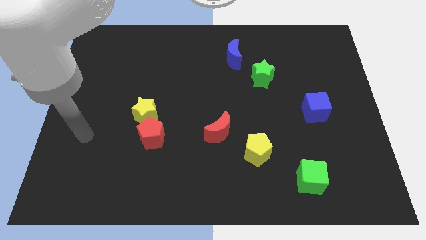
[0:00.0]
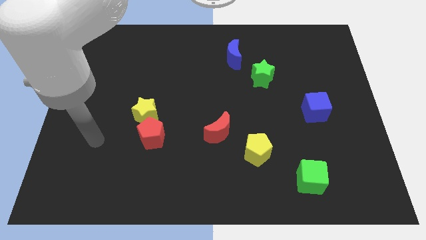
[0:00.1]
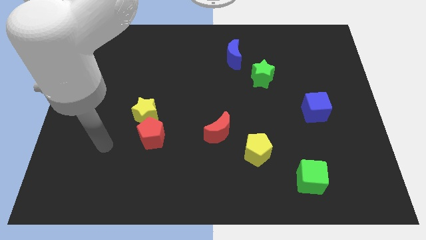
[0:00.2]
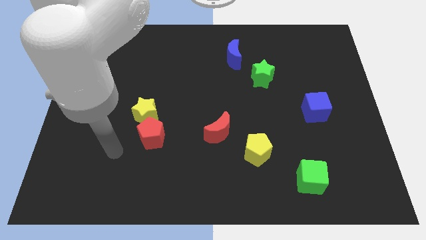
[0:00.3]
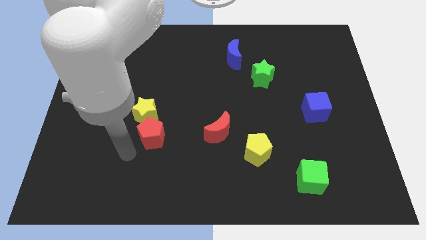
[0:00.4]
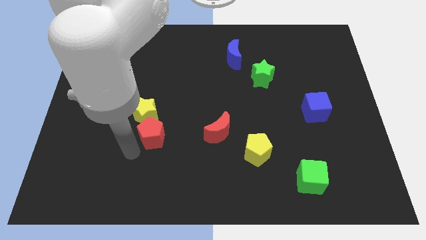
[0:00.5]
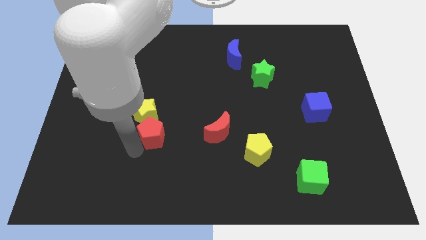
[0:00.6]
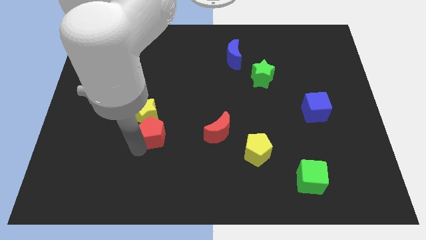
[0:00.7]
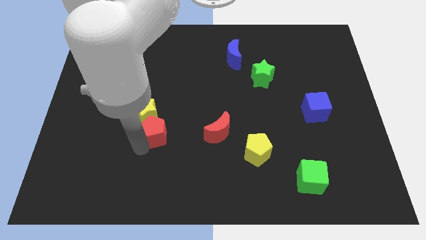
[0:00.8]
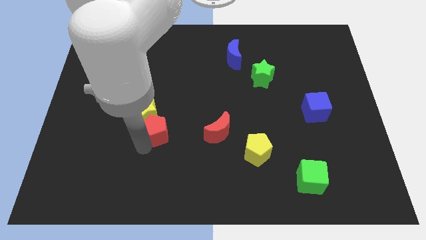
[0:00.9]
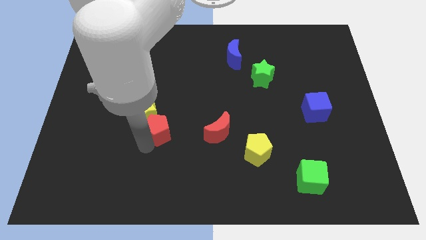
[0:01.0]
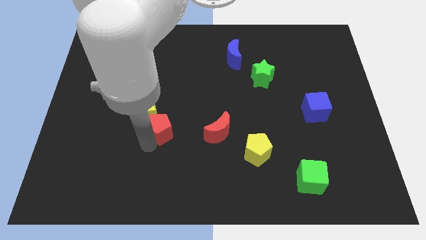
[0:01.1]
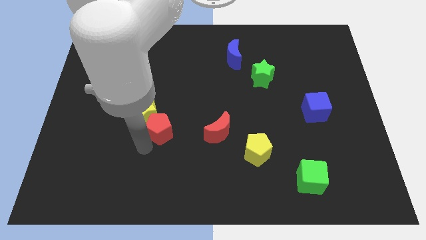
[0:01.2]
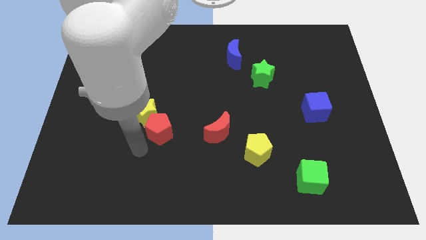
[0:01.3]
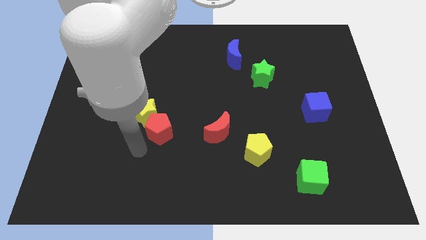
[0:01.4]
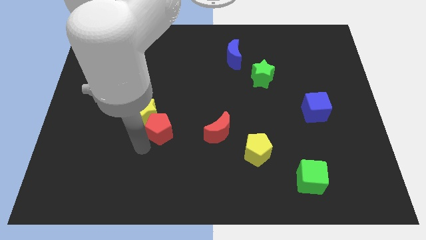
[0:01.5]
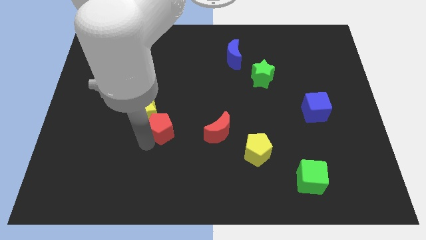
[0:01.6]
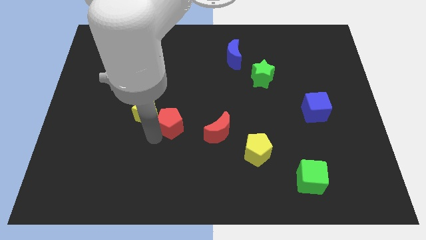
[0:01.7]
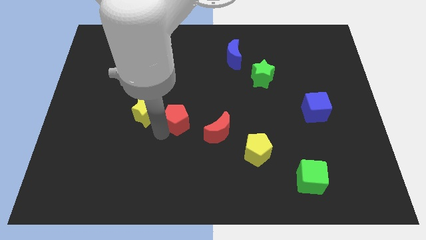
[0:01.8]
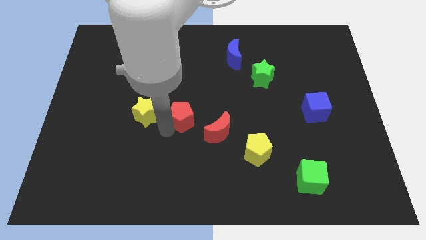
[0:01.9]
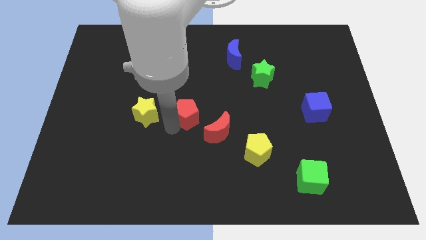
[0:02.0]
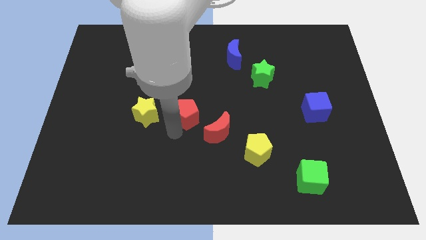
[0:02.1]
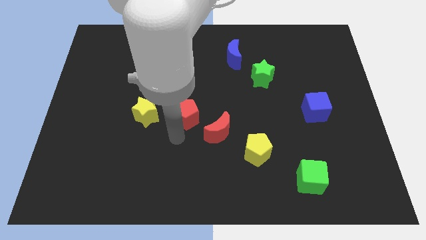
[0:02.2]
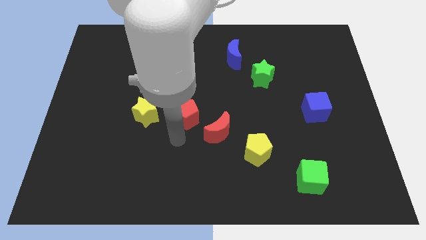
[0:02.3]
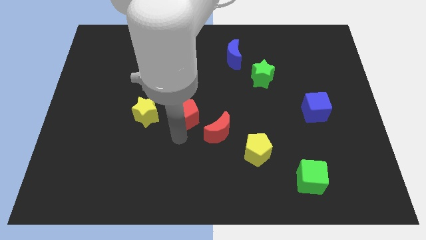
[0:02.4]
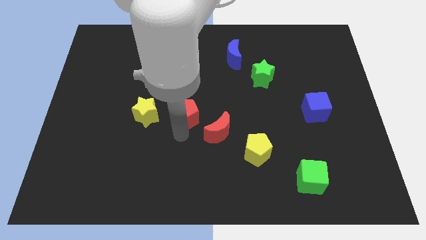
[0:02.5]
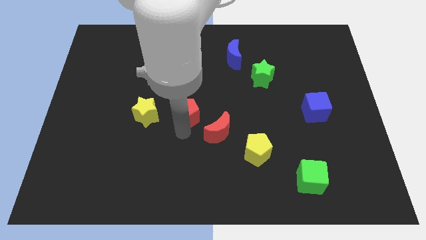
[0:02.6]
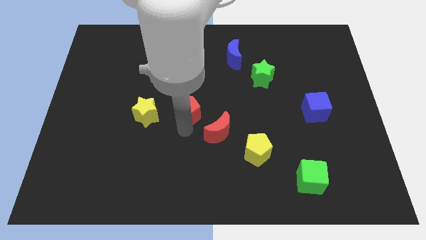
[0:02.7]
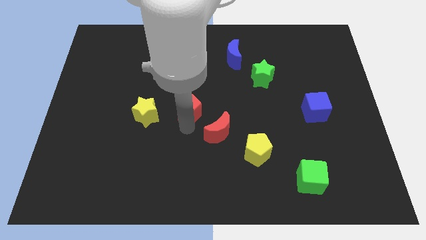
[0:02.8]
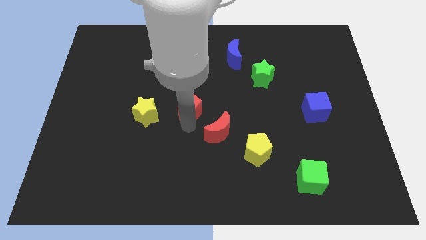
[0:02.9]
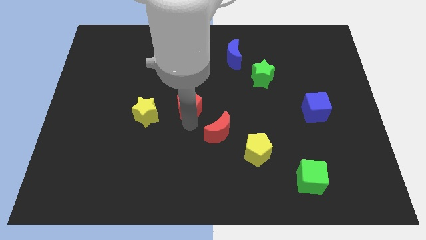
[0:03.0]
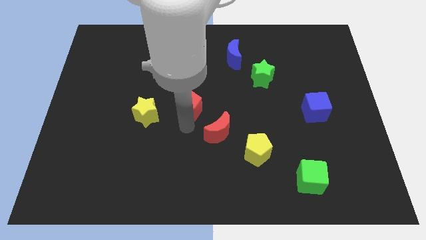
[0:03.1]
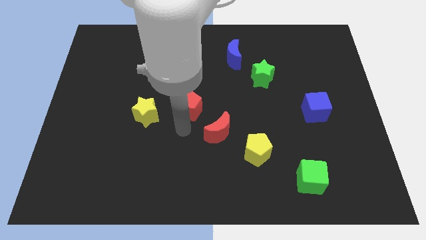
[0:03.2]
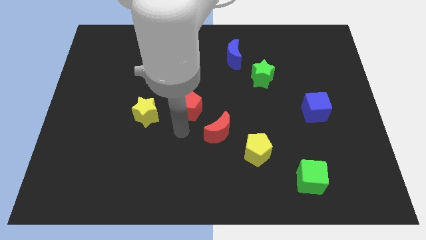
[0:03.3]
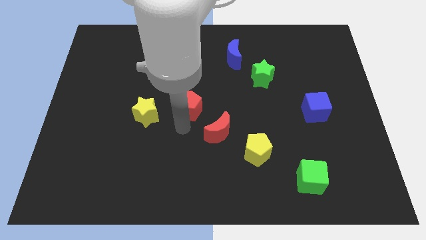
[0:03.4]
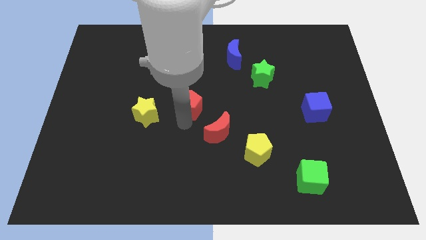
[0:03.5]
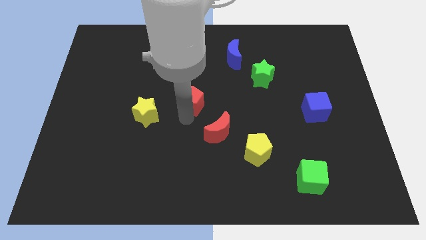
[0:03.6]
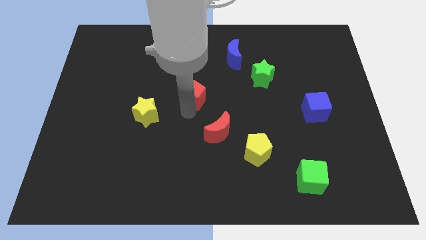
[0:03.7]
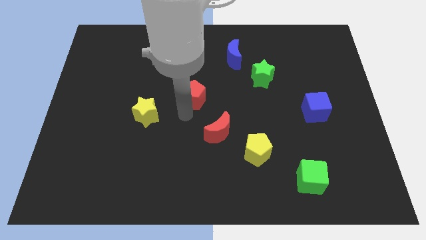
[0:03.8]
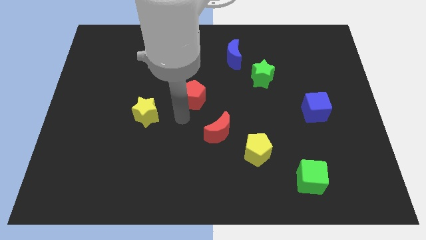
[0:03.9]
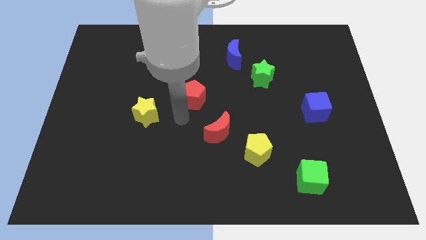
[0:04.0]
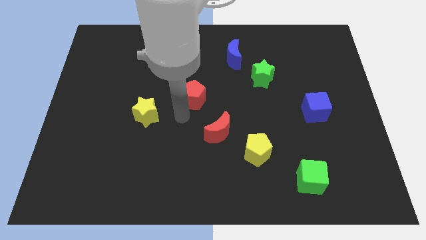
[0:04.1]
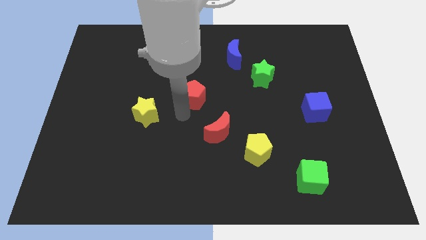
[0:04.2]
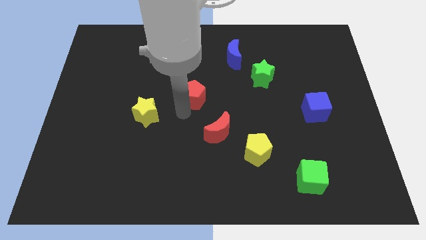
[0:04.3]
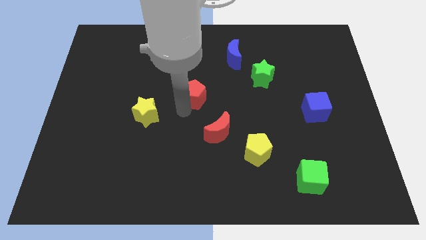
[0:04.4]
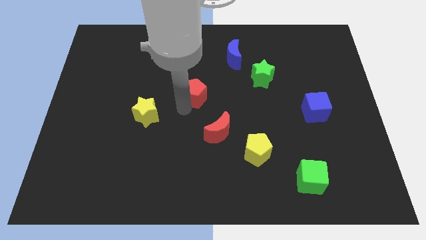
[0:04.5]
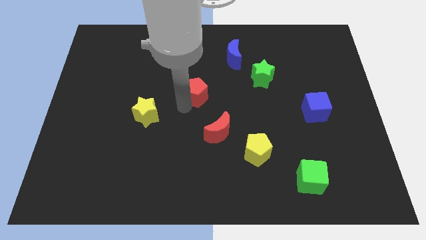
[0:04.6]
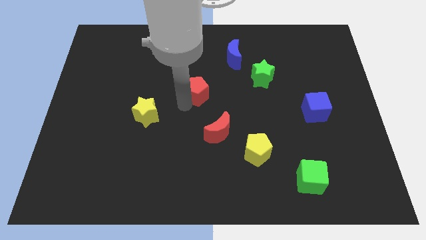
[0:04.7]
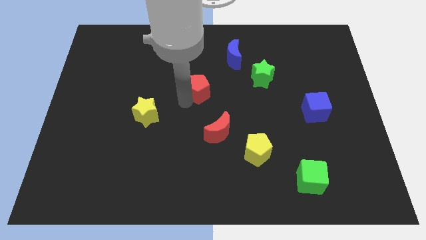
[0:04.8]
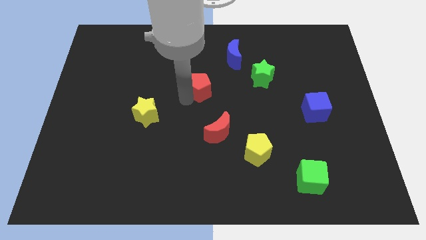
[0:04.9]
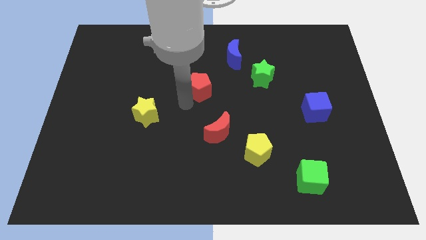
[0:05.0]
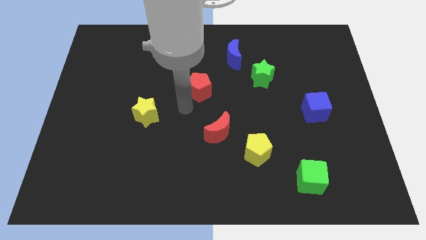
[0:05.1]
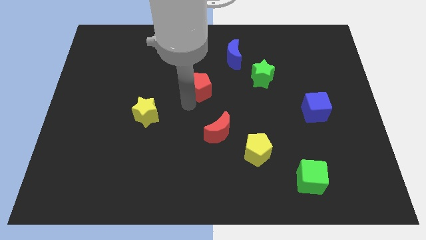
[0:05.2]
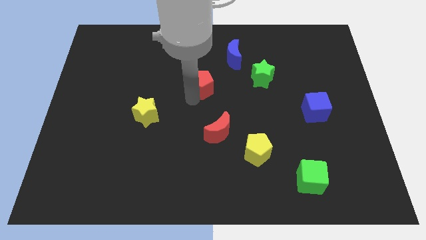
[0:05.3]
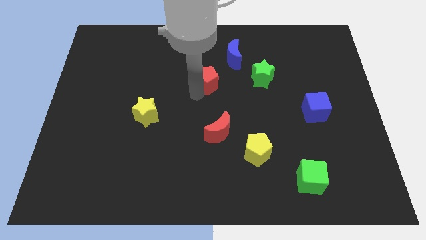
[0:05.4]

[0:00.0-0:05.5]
put the red pentagon to the bottom left side of the blue moon
